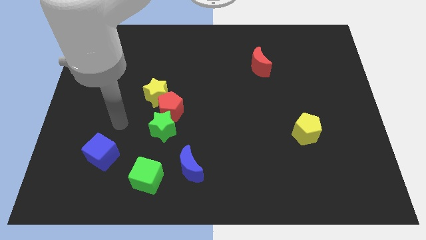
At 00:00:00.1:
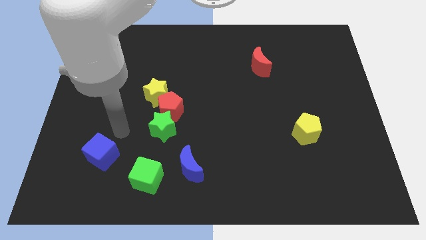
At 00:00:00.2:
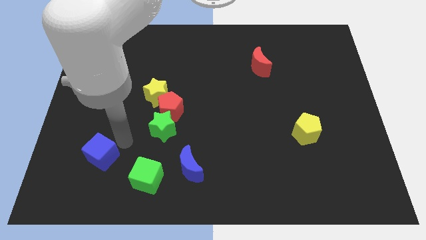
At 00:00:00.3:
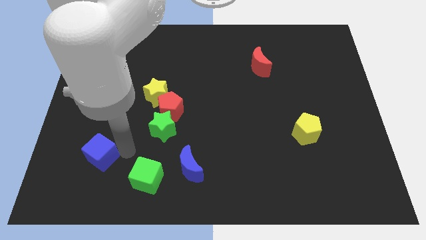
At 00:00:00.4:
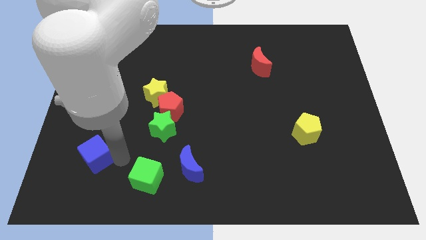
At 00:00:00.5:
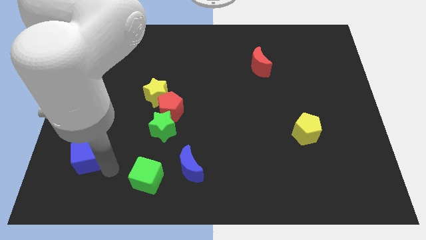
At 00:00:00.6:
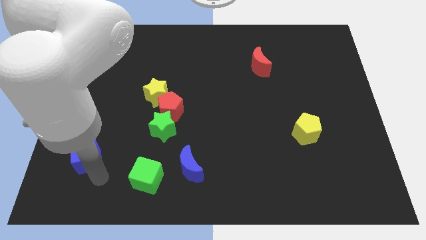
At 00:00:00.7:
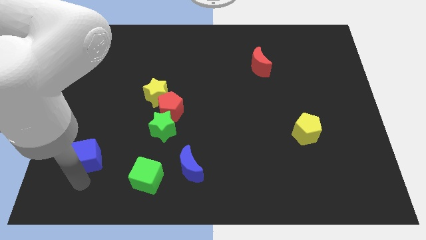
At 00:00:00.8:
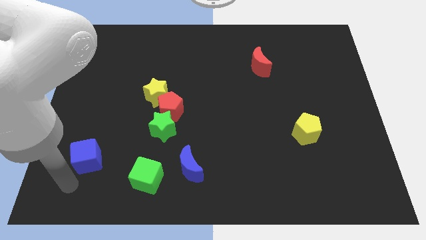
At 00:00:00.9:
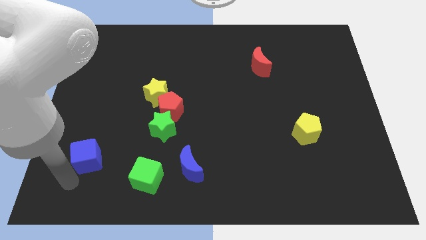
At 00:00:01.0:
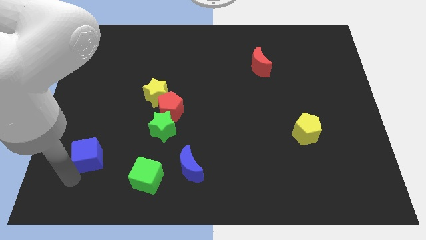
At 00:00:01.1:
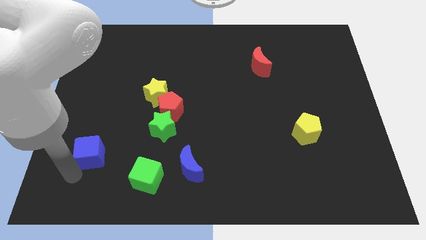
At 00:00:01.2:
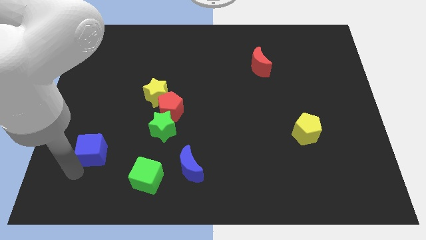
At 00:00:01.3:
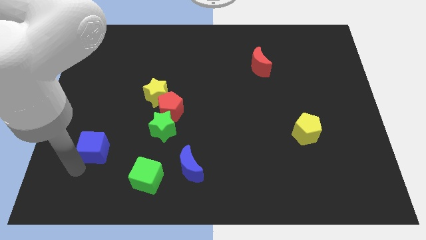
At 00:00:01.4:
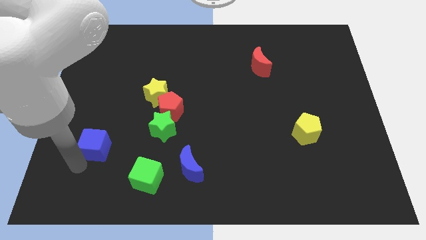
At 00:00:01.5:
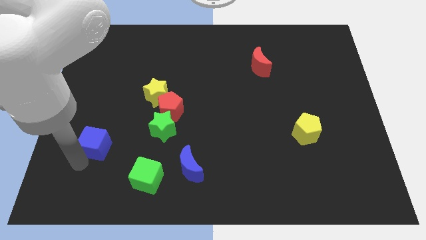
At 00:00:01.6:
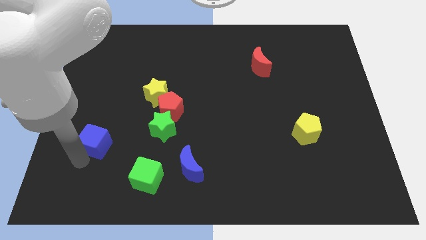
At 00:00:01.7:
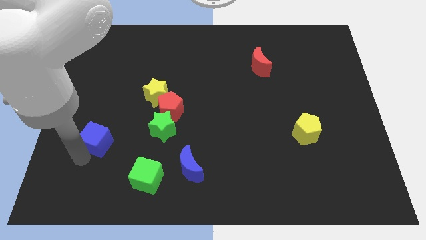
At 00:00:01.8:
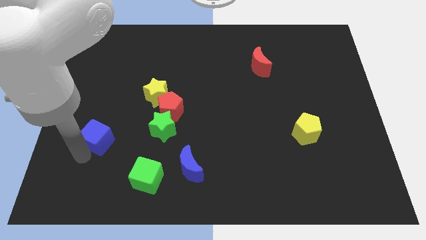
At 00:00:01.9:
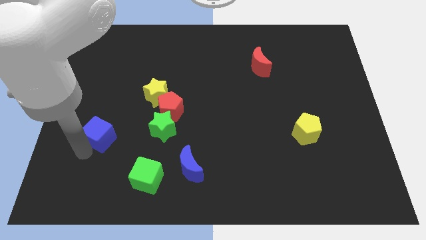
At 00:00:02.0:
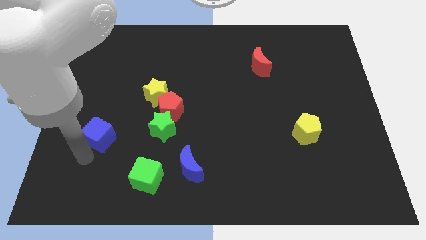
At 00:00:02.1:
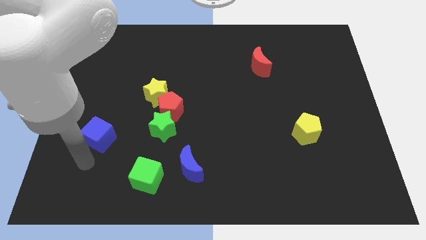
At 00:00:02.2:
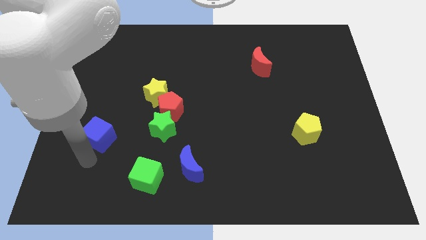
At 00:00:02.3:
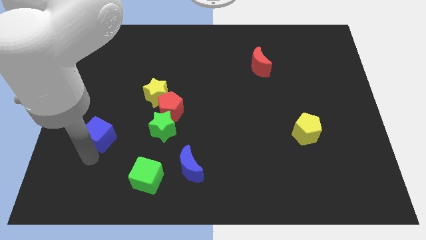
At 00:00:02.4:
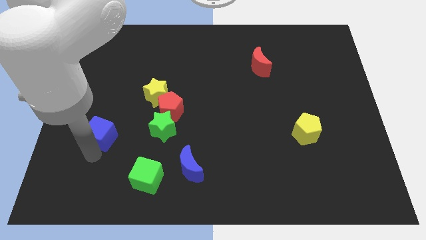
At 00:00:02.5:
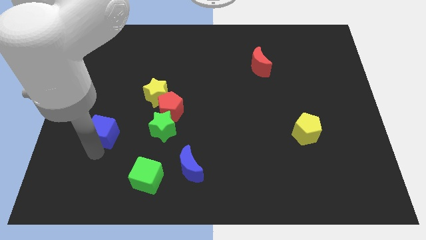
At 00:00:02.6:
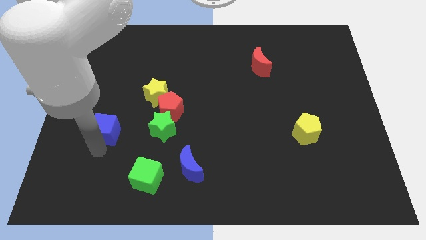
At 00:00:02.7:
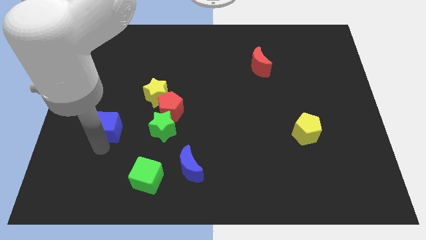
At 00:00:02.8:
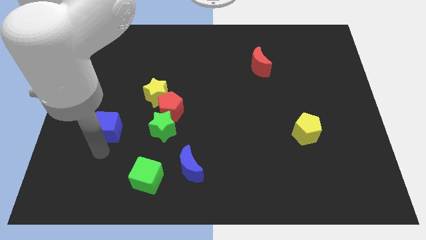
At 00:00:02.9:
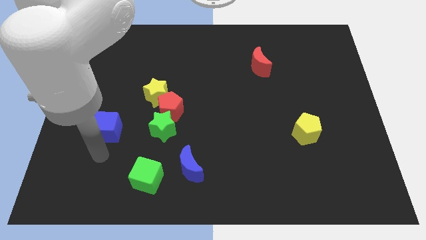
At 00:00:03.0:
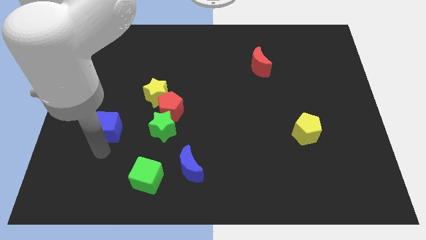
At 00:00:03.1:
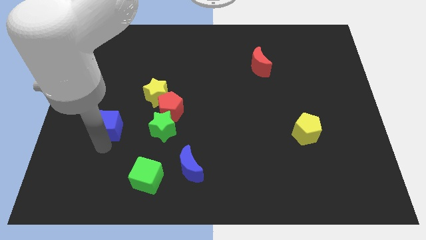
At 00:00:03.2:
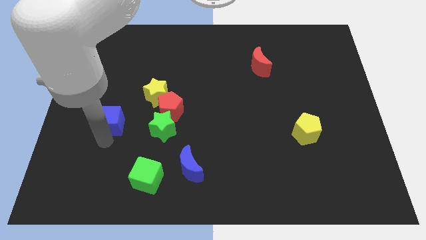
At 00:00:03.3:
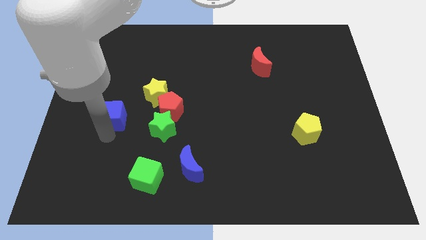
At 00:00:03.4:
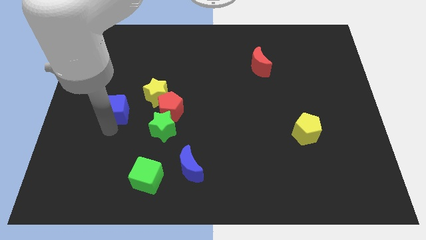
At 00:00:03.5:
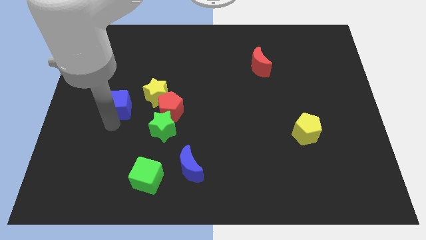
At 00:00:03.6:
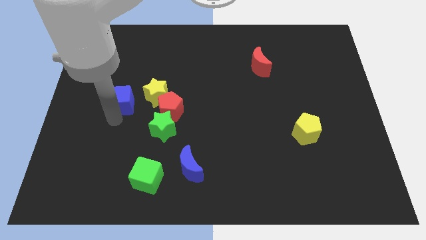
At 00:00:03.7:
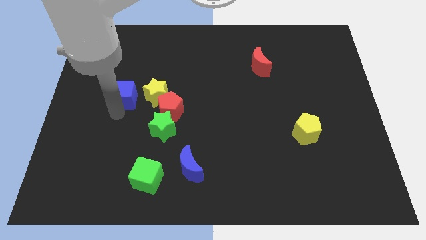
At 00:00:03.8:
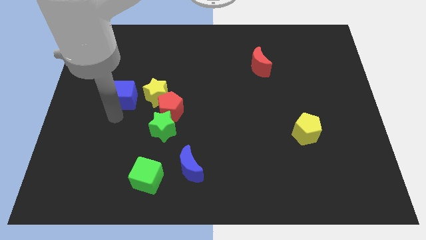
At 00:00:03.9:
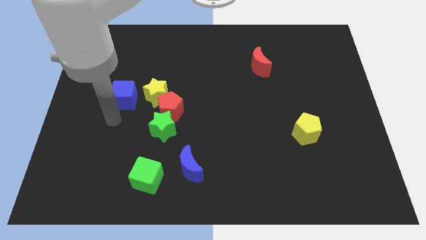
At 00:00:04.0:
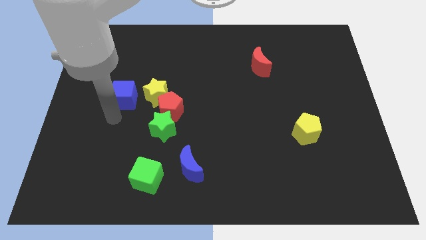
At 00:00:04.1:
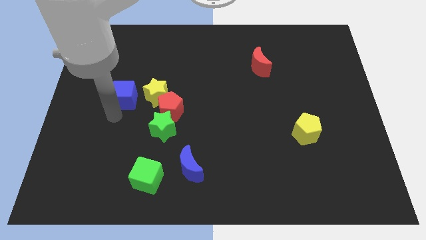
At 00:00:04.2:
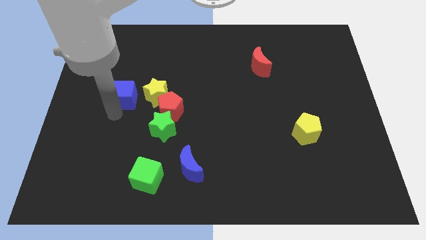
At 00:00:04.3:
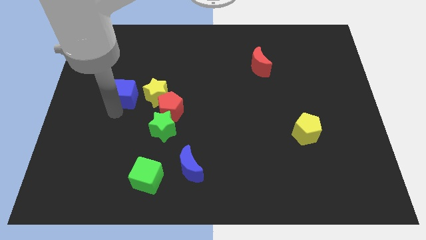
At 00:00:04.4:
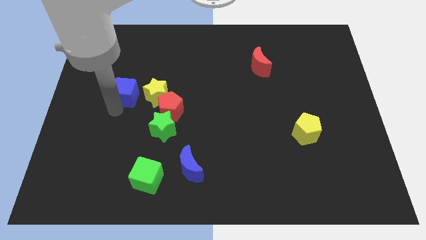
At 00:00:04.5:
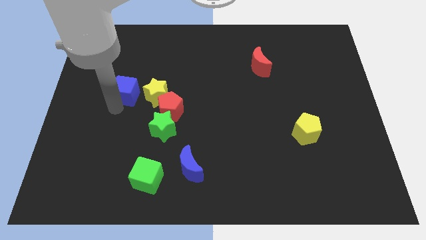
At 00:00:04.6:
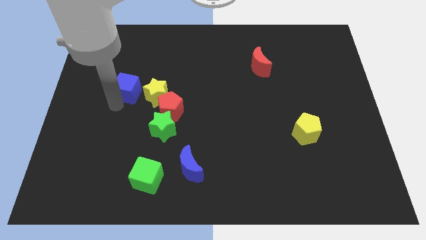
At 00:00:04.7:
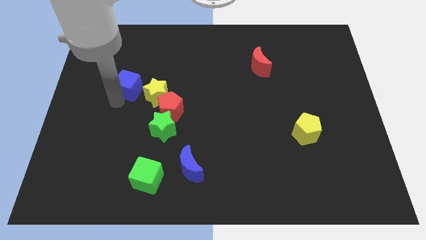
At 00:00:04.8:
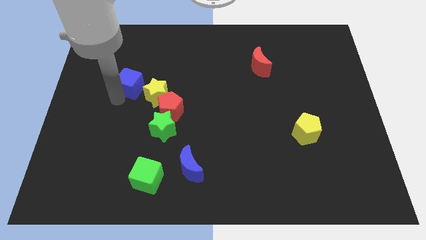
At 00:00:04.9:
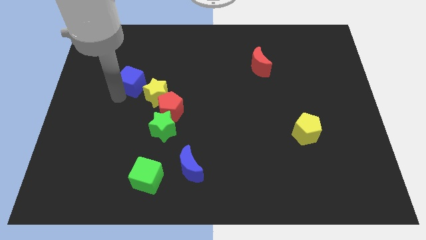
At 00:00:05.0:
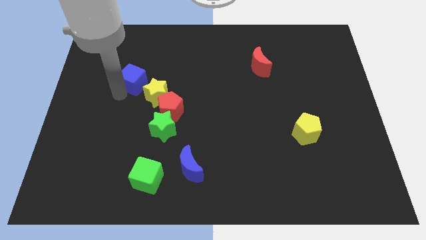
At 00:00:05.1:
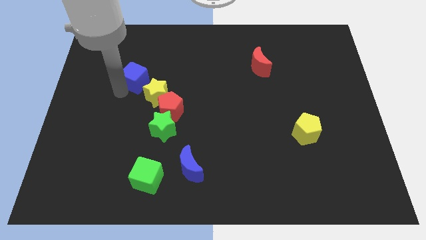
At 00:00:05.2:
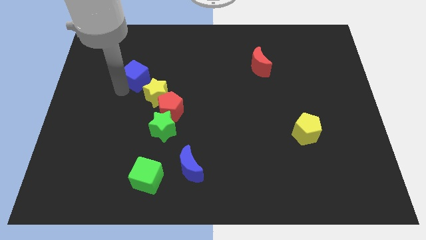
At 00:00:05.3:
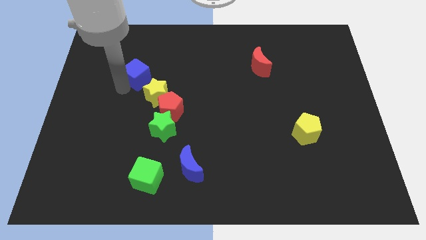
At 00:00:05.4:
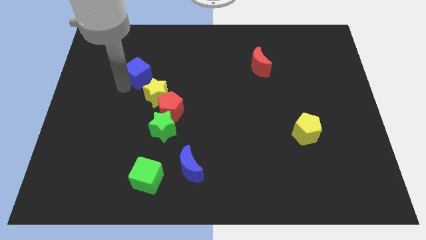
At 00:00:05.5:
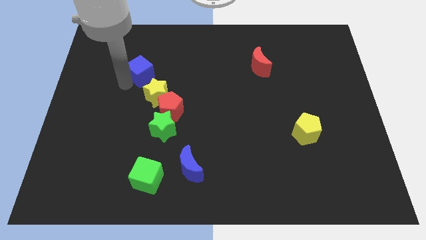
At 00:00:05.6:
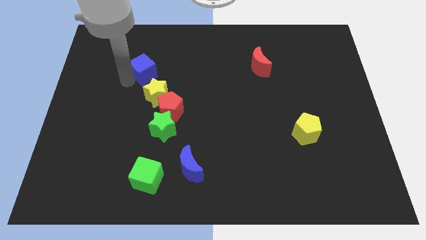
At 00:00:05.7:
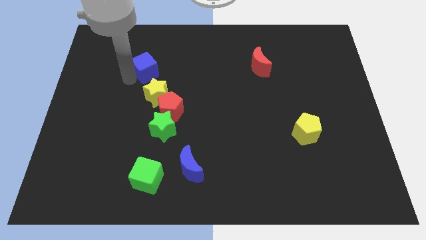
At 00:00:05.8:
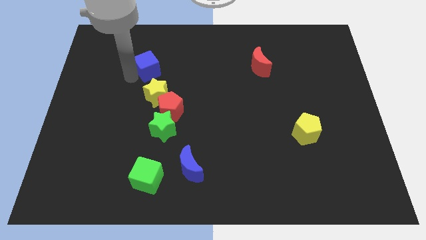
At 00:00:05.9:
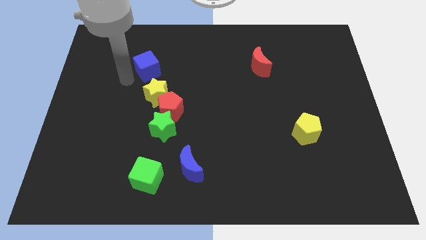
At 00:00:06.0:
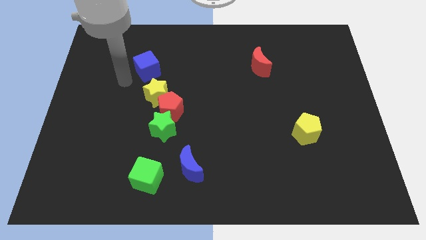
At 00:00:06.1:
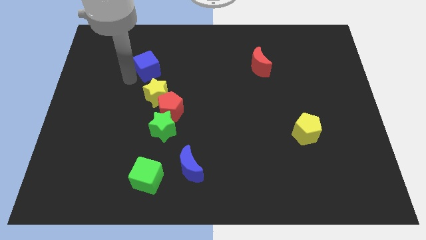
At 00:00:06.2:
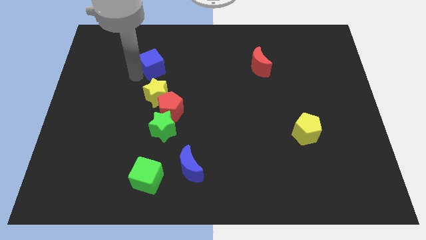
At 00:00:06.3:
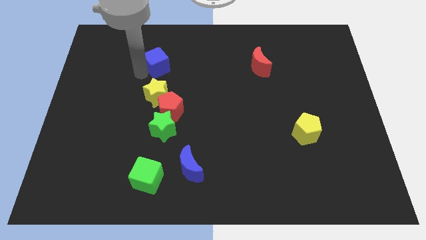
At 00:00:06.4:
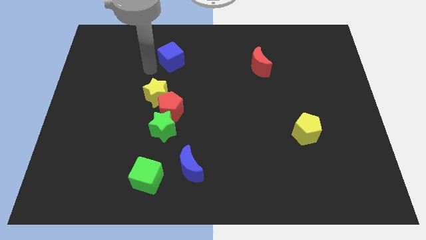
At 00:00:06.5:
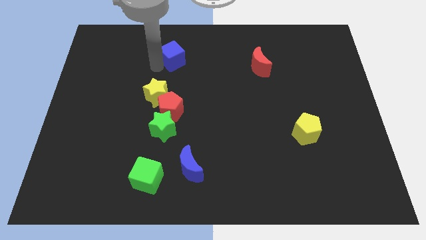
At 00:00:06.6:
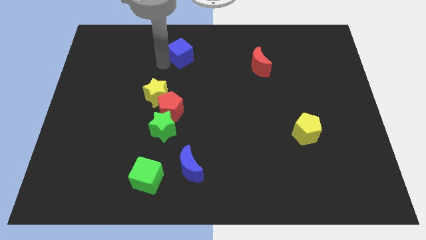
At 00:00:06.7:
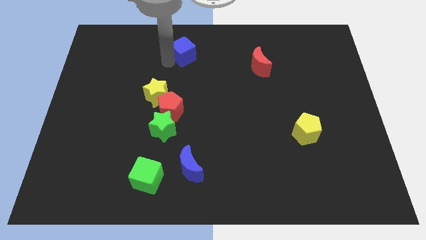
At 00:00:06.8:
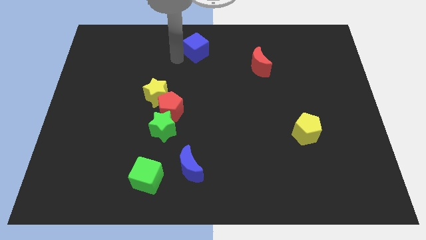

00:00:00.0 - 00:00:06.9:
slide the blue cube to the top
